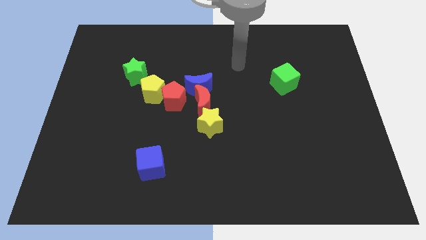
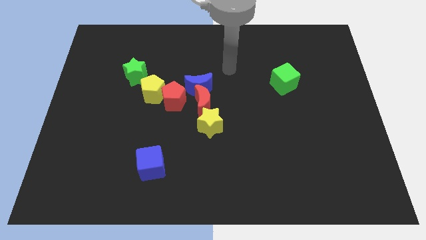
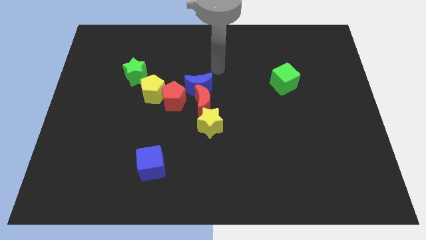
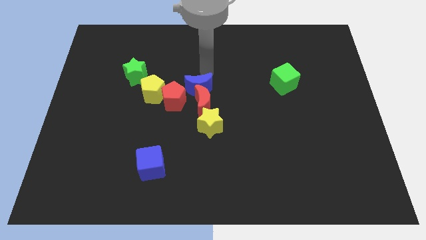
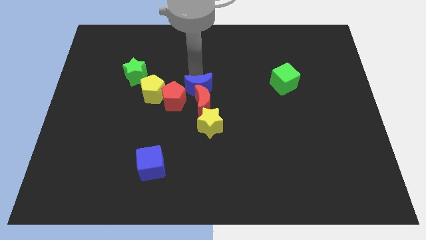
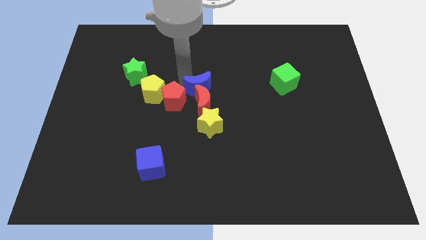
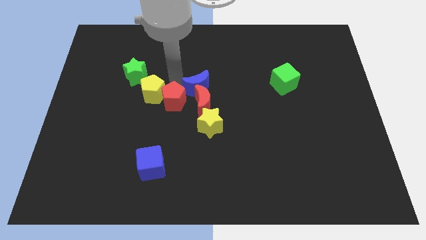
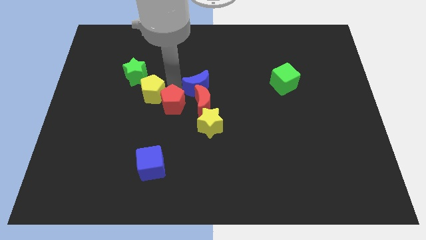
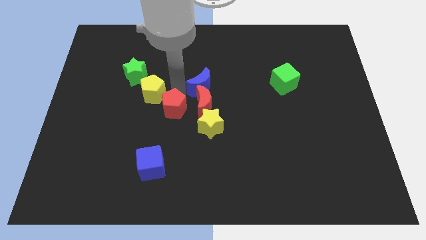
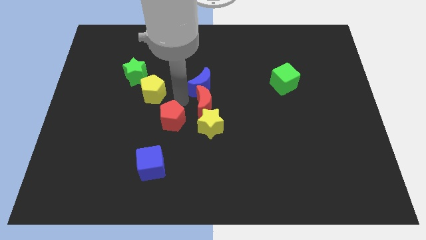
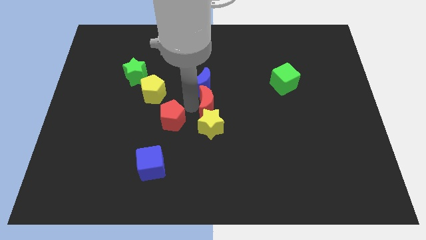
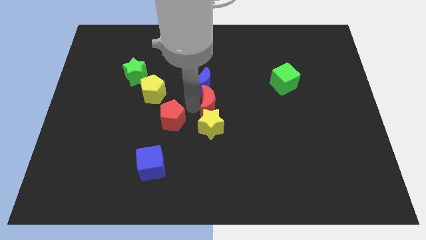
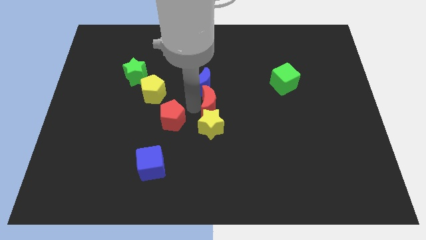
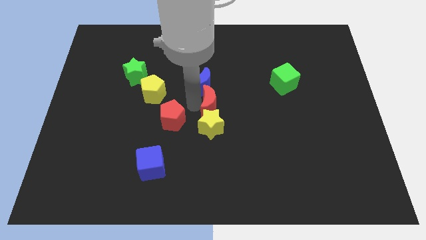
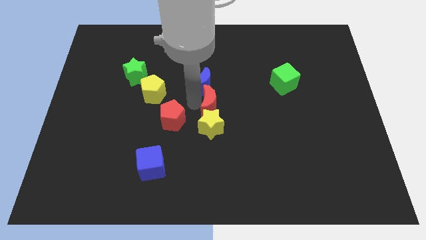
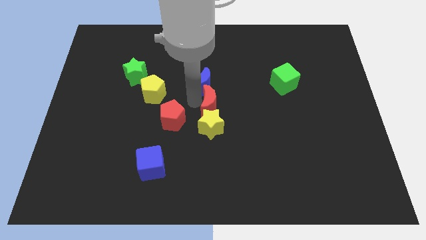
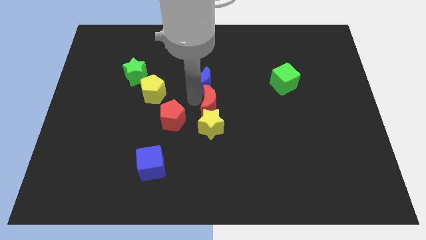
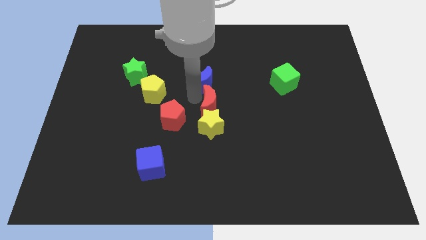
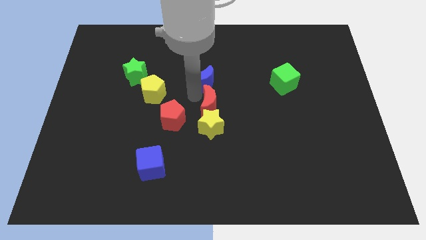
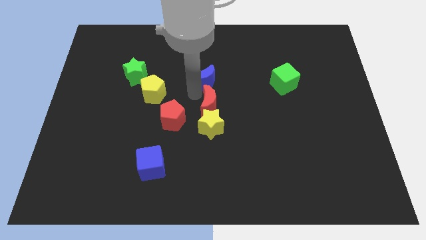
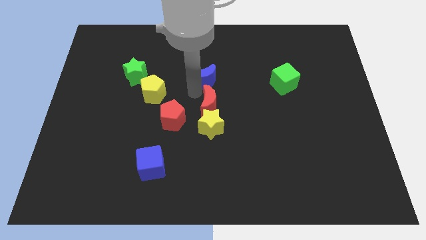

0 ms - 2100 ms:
separate the blue moon from the red moon and red pentagon

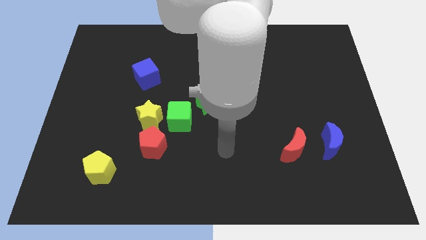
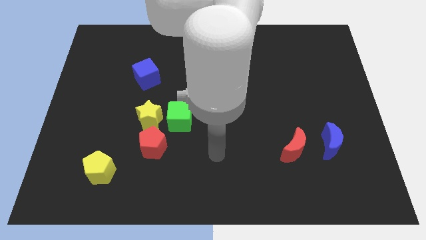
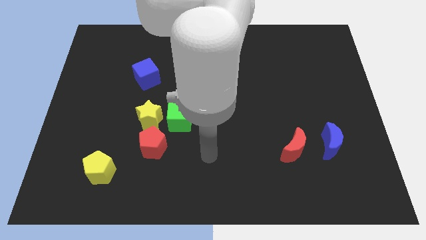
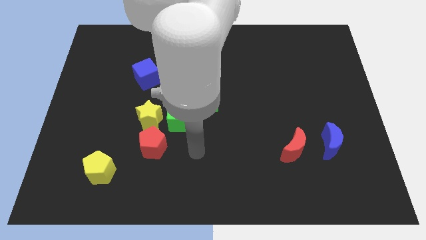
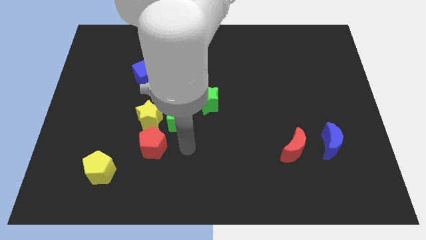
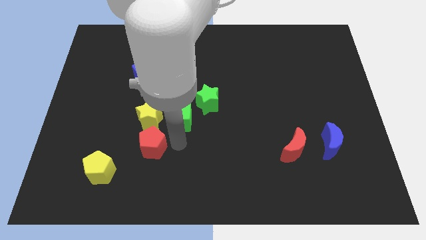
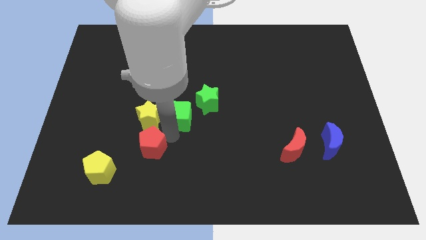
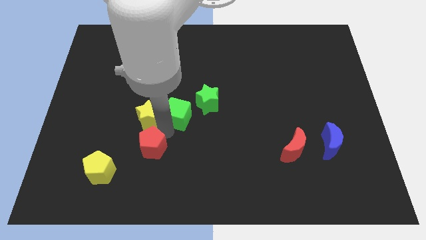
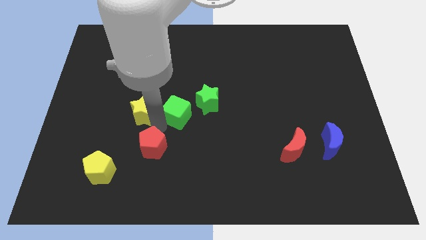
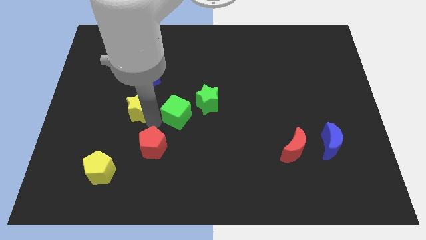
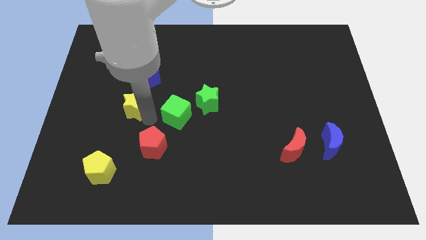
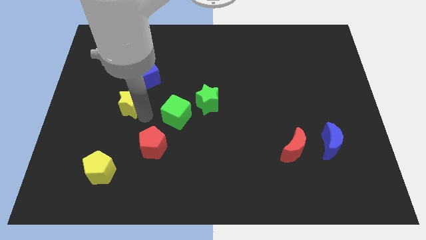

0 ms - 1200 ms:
move the yellow star away from the green cube and red pentagon

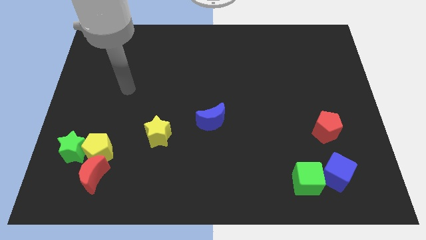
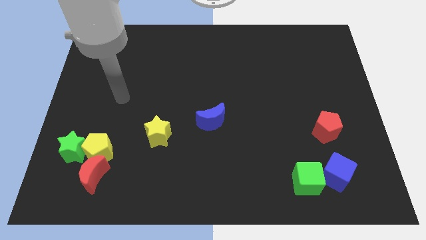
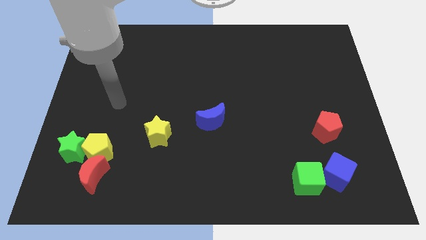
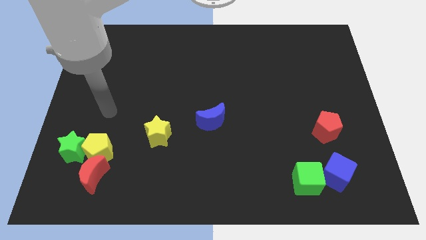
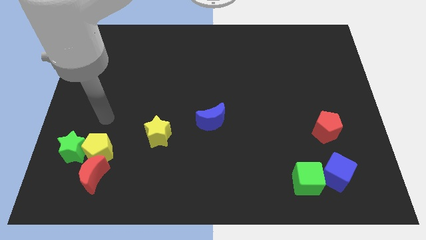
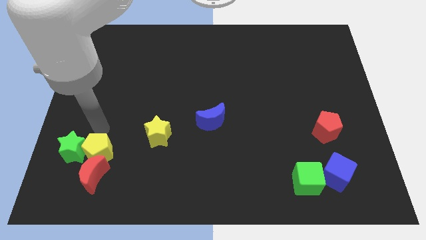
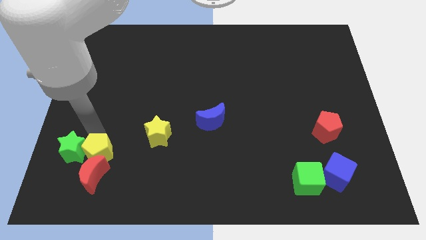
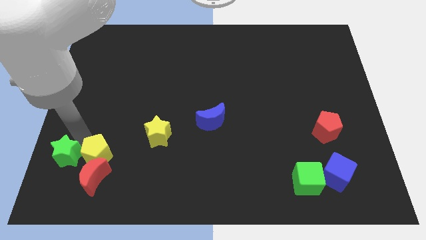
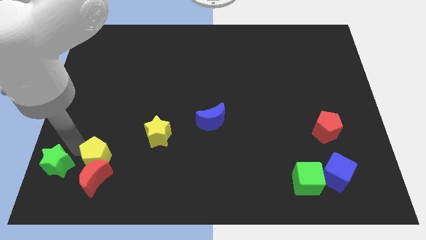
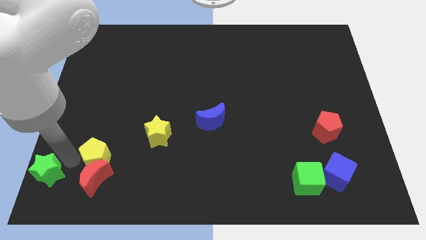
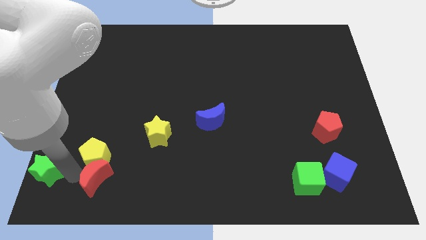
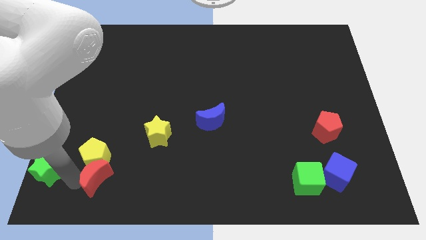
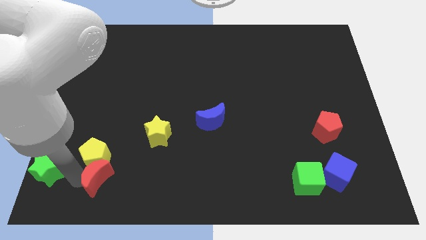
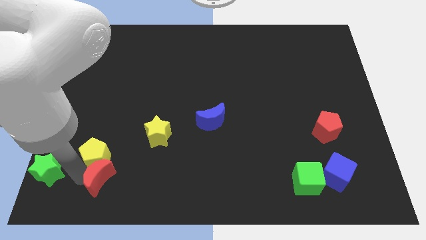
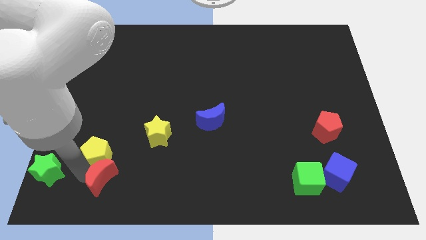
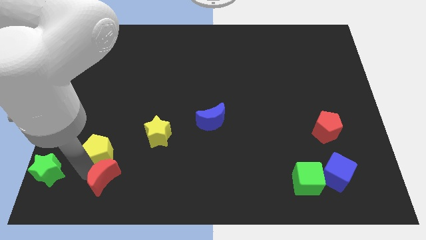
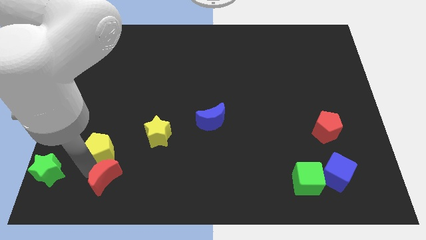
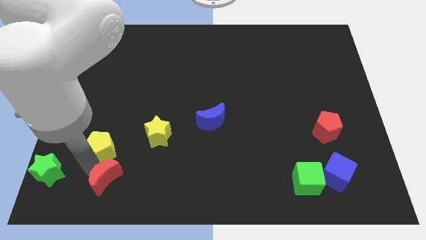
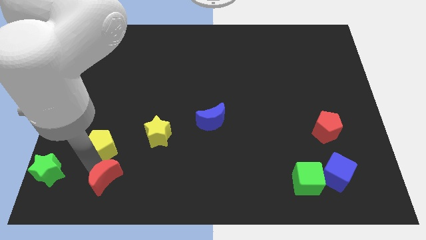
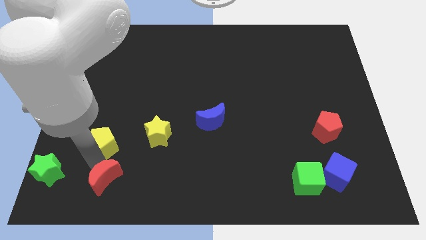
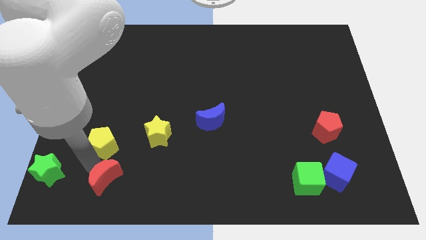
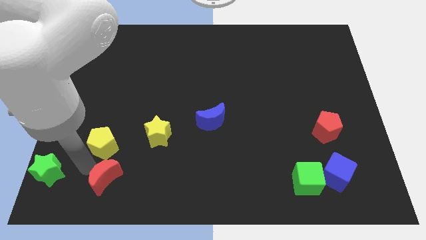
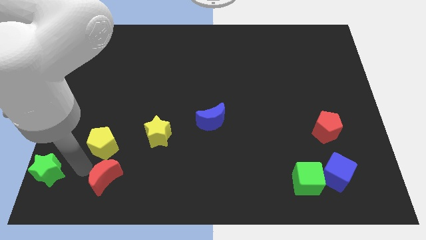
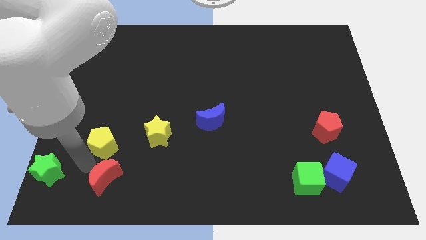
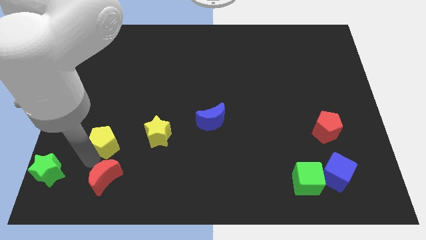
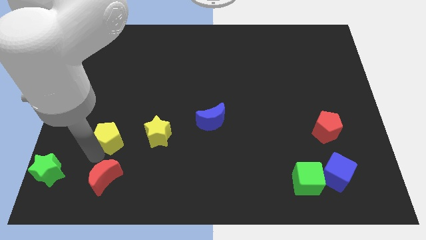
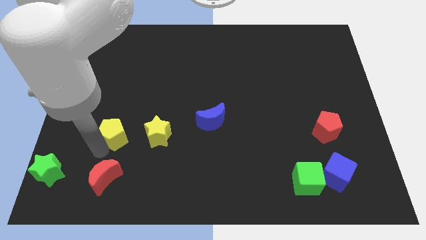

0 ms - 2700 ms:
pull the yellow pentagon apart from the green star and red moon

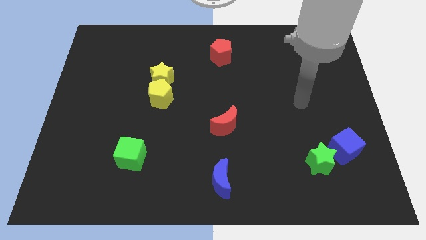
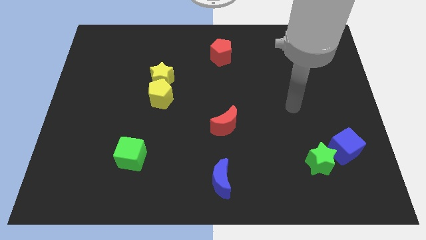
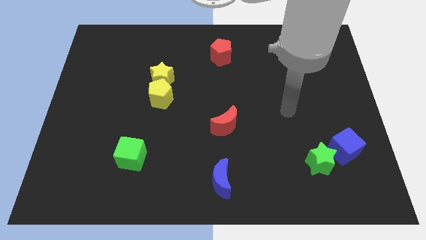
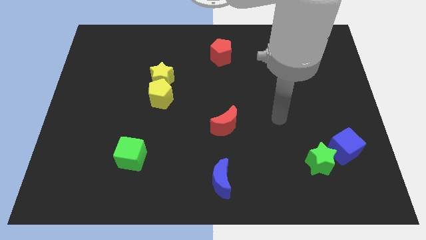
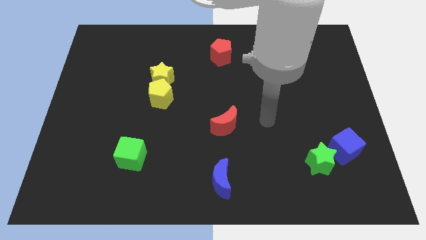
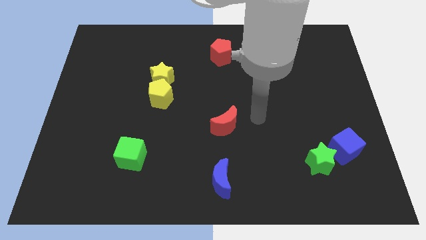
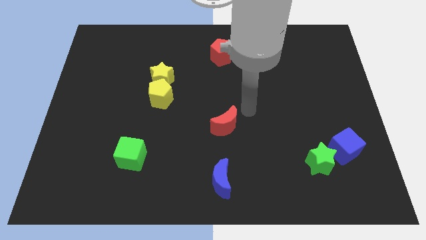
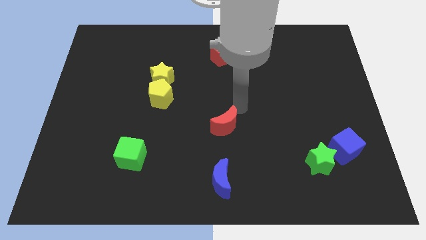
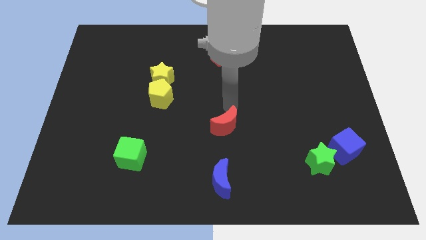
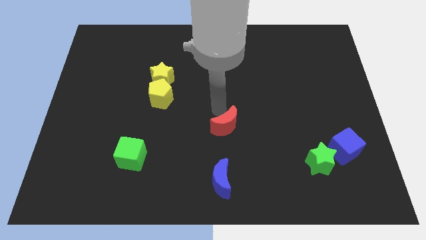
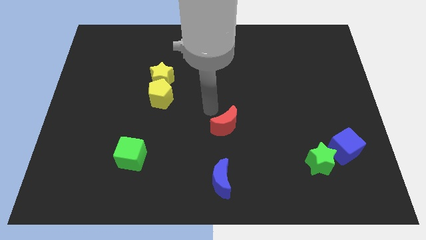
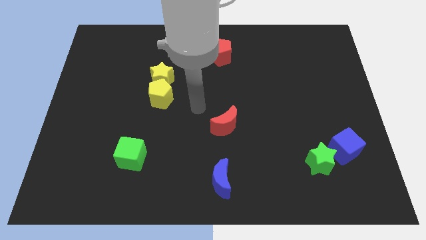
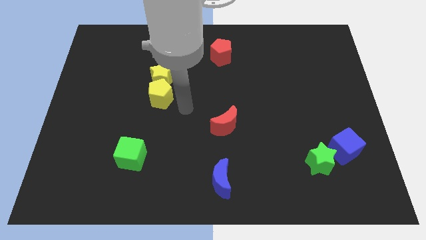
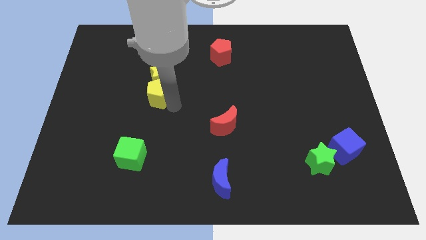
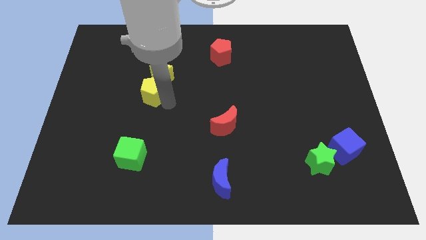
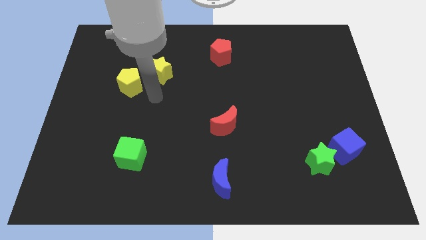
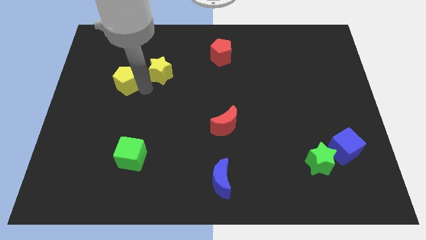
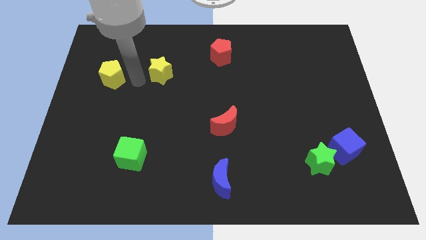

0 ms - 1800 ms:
pull the yellow star apart from the yellow pentagon

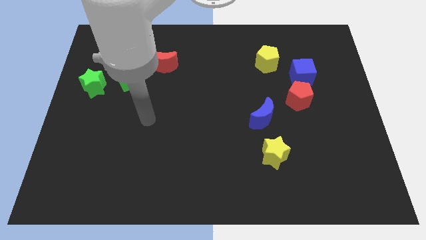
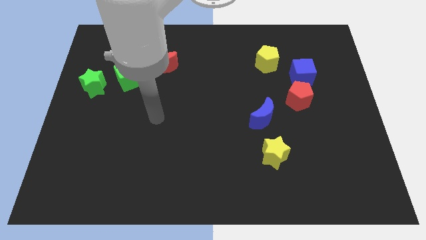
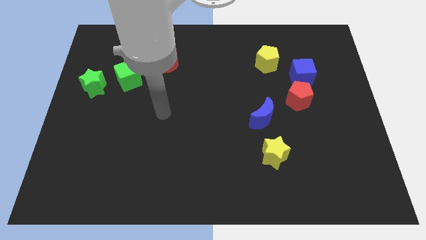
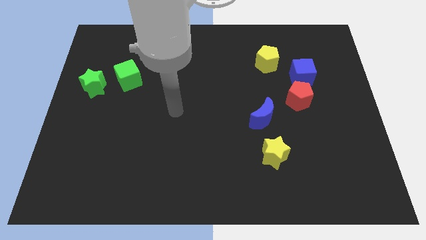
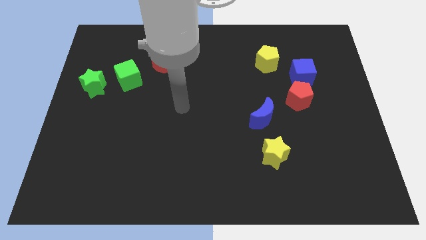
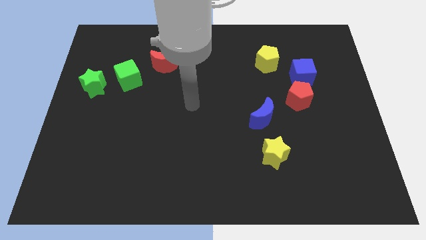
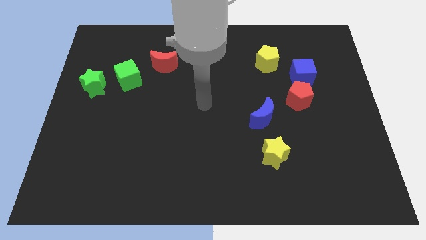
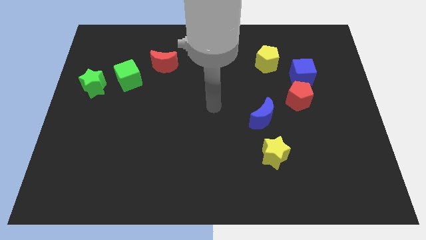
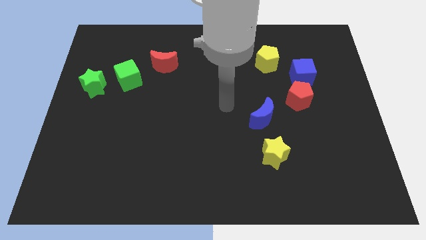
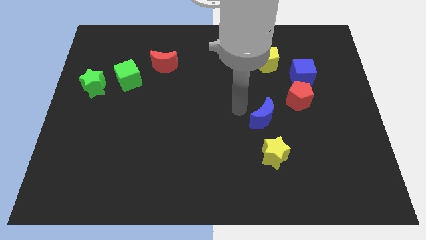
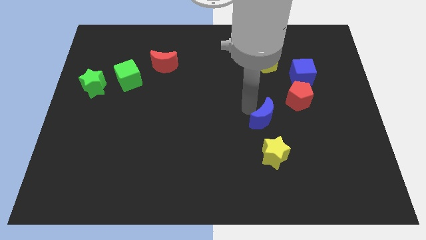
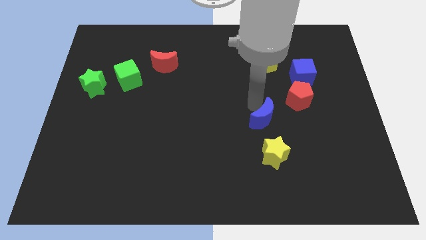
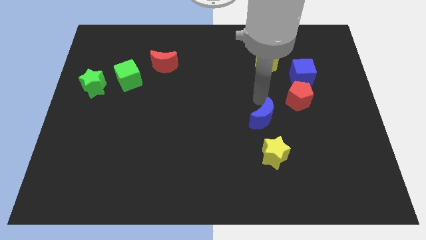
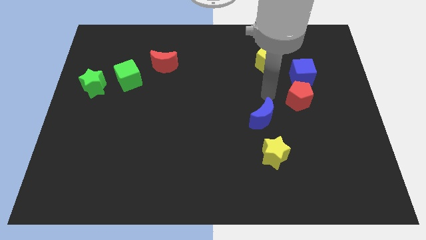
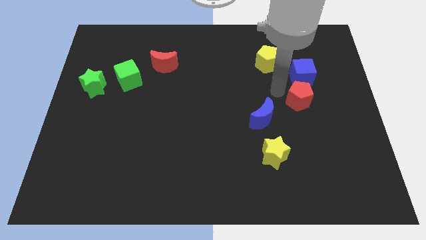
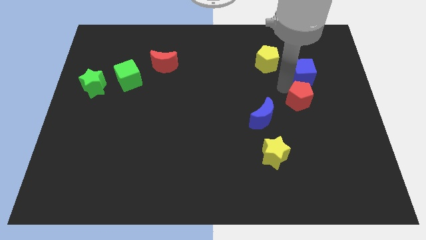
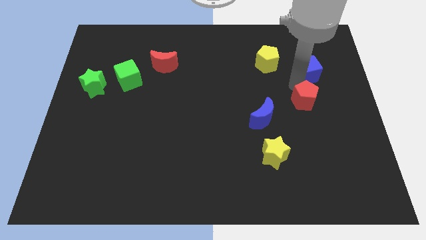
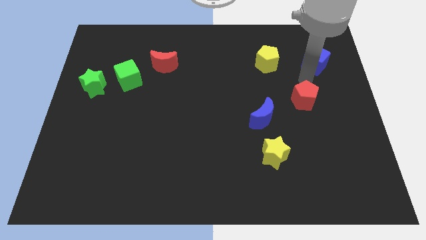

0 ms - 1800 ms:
separate the red pentagon from the blue cube
